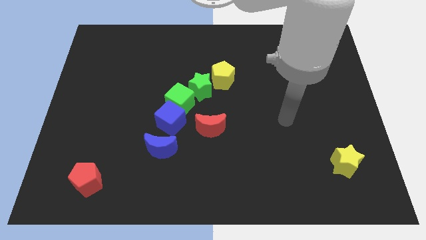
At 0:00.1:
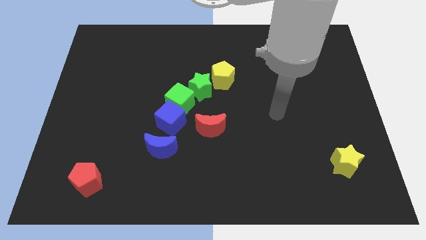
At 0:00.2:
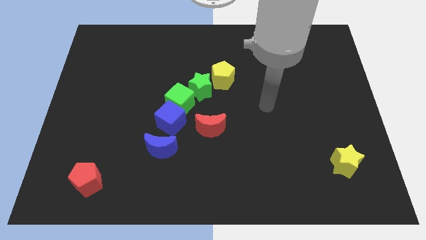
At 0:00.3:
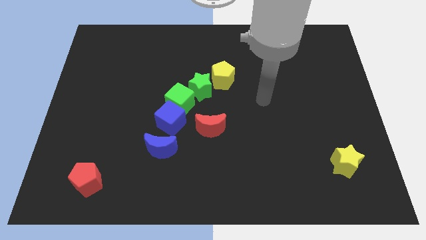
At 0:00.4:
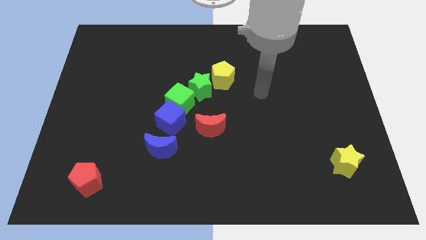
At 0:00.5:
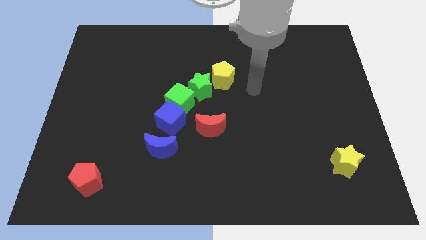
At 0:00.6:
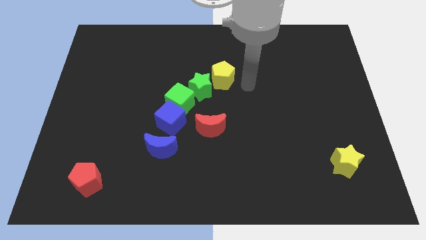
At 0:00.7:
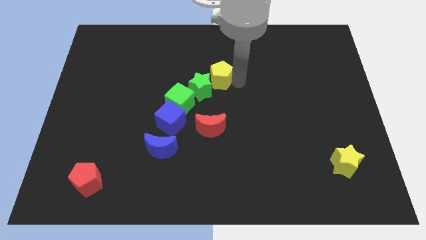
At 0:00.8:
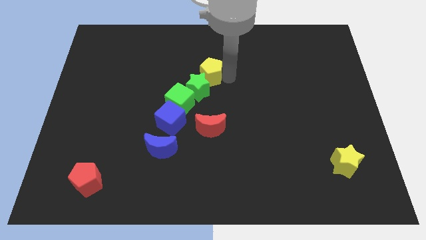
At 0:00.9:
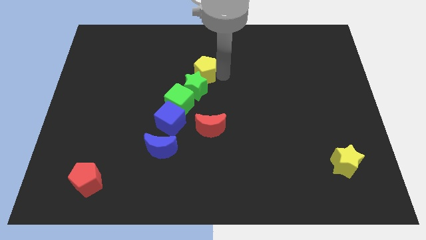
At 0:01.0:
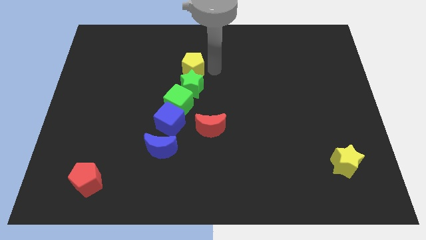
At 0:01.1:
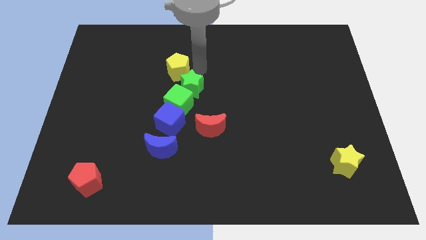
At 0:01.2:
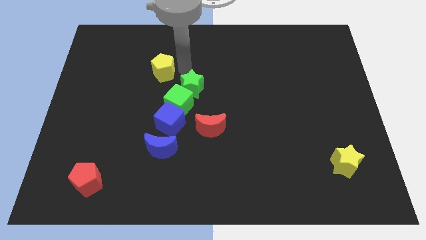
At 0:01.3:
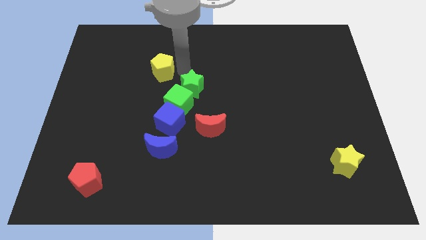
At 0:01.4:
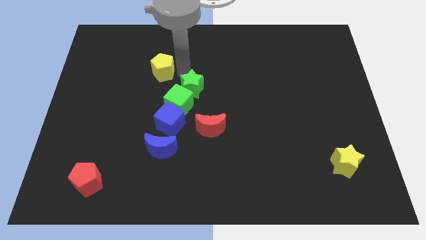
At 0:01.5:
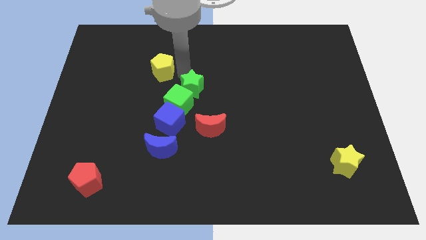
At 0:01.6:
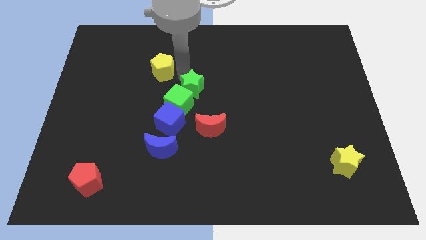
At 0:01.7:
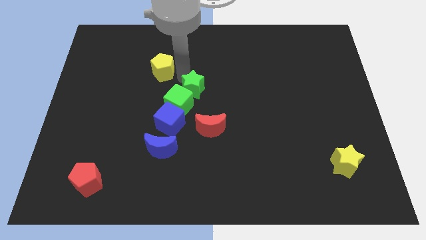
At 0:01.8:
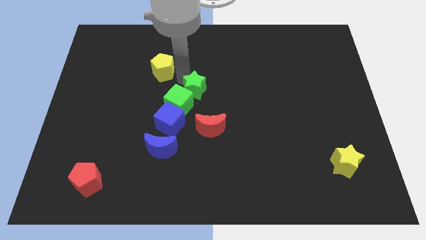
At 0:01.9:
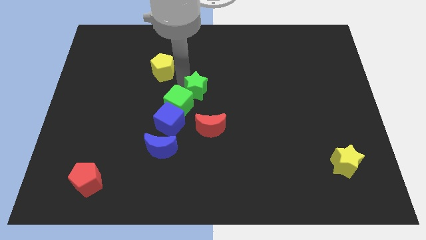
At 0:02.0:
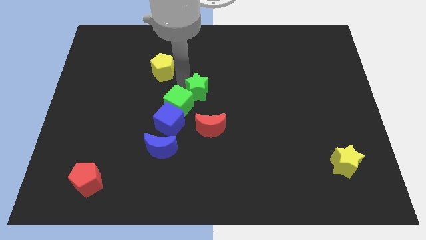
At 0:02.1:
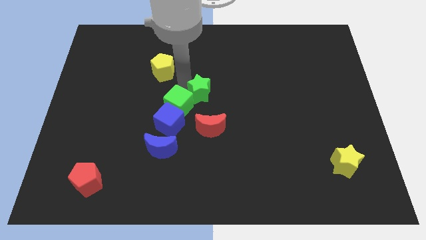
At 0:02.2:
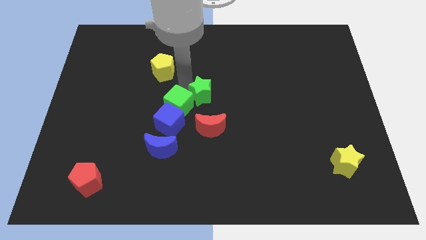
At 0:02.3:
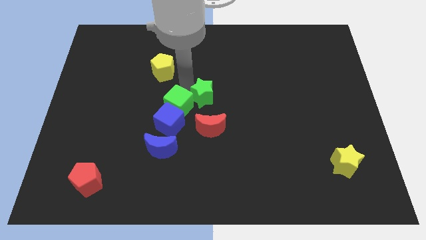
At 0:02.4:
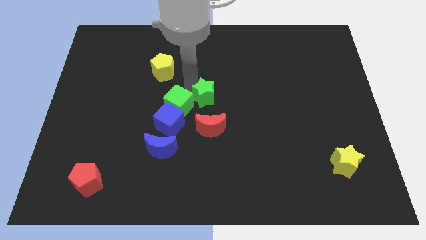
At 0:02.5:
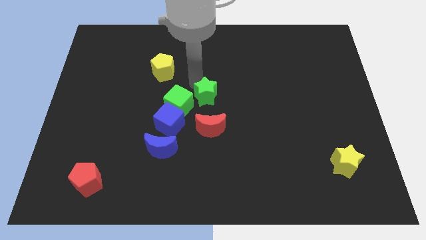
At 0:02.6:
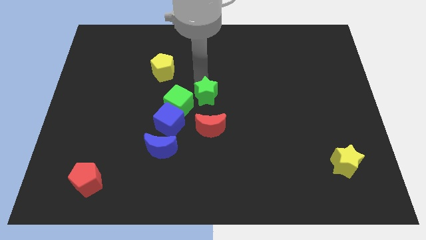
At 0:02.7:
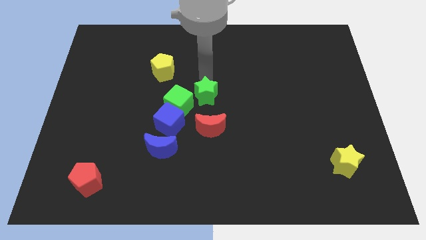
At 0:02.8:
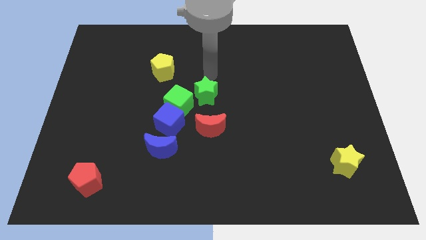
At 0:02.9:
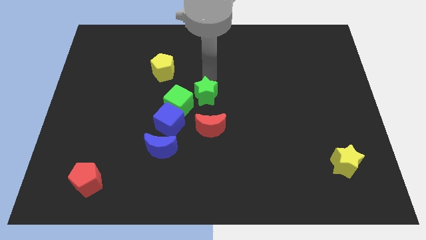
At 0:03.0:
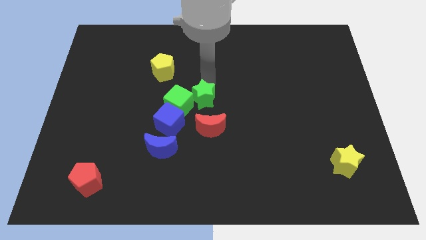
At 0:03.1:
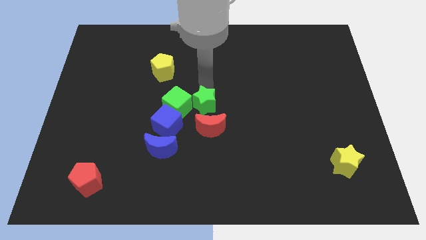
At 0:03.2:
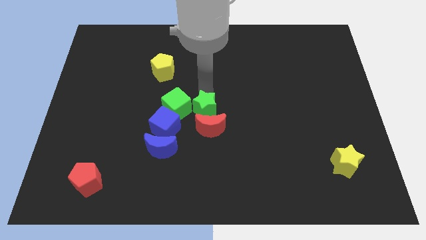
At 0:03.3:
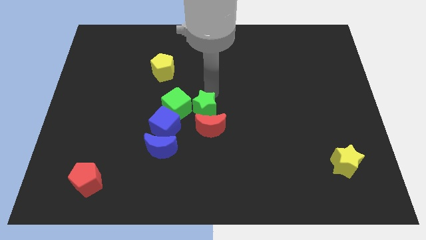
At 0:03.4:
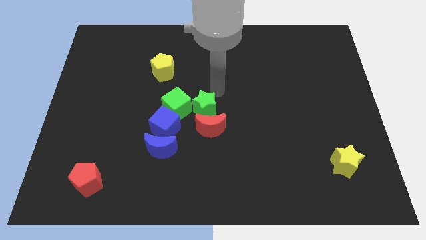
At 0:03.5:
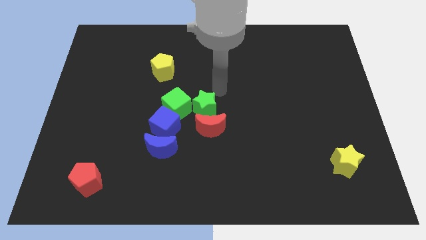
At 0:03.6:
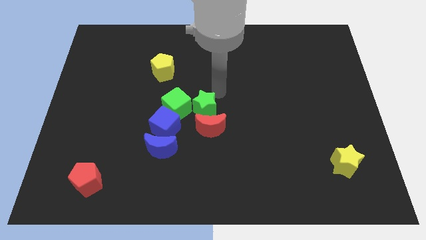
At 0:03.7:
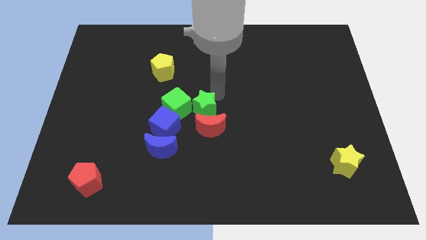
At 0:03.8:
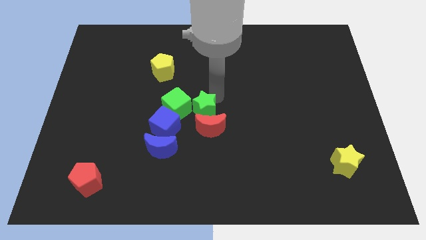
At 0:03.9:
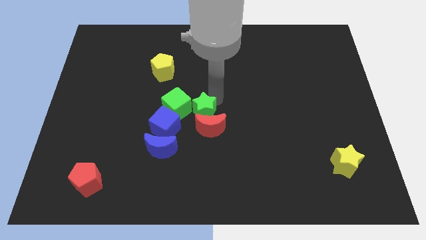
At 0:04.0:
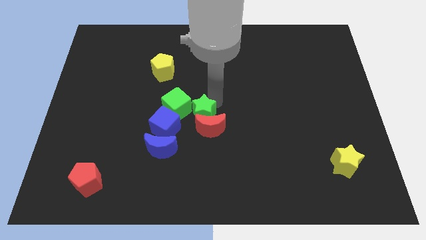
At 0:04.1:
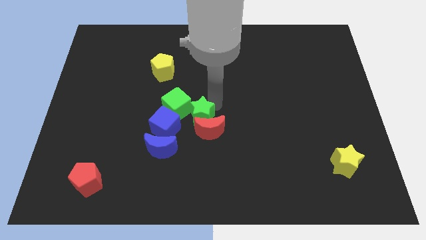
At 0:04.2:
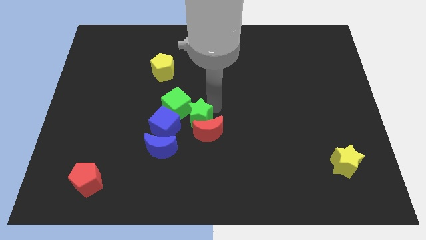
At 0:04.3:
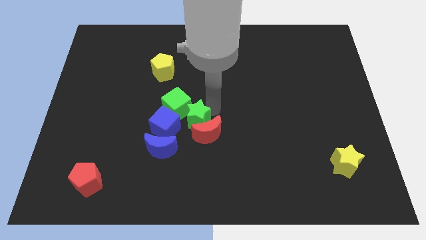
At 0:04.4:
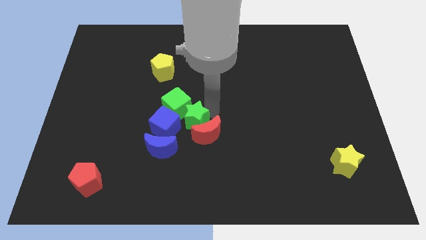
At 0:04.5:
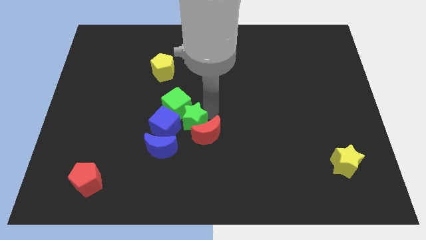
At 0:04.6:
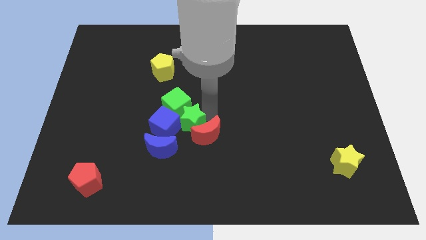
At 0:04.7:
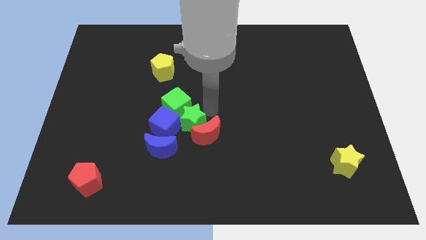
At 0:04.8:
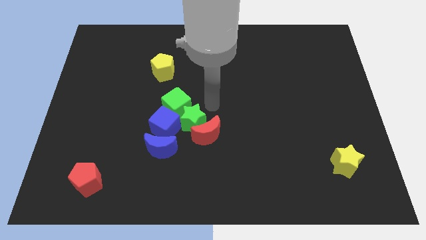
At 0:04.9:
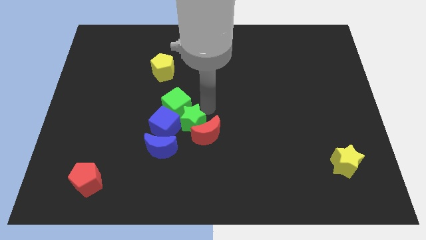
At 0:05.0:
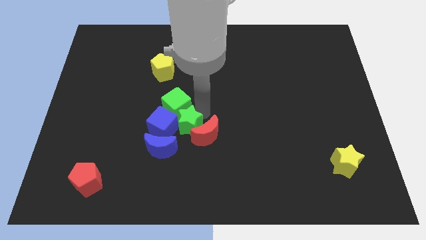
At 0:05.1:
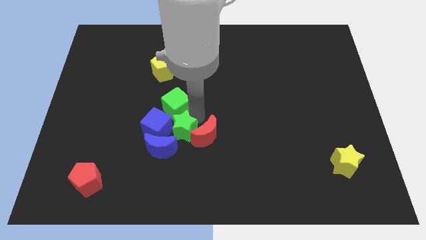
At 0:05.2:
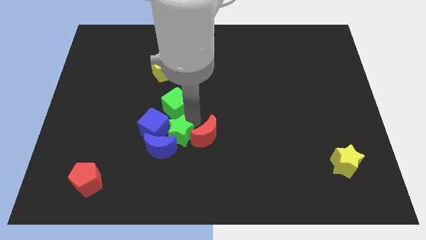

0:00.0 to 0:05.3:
slide the green star next to the blue moon

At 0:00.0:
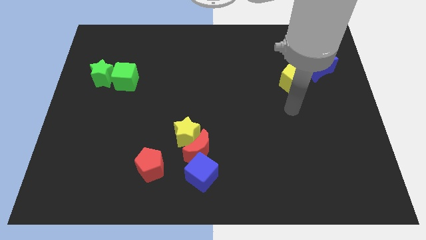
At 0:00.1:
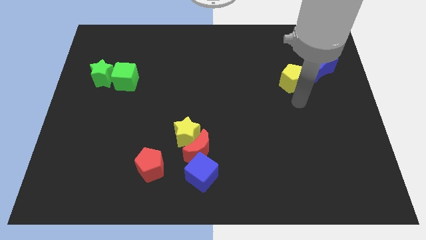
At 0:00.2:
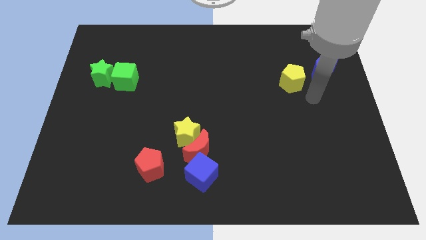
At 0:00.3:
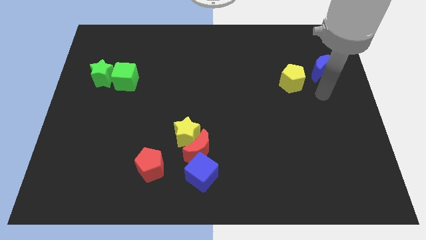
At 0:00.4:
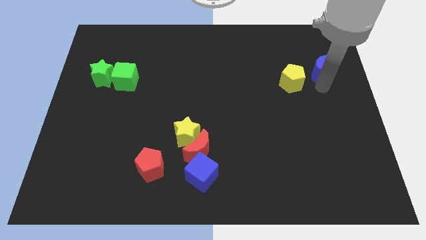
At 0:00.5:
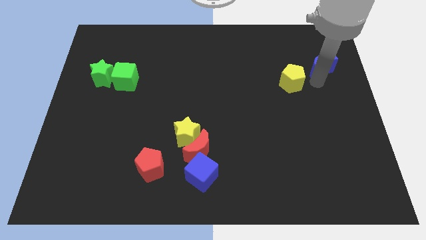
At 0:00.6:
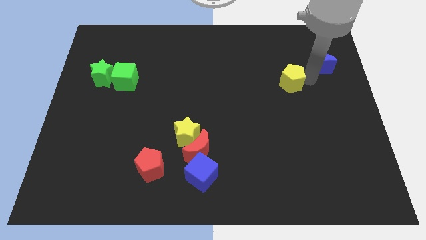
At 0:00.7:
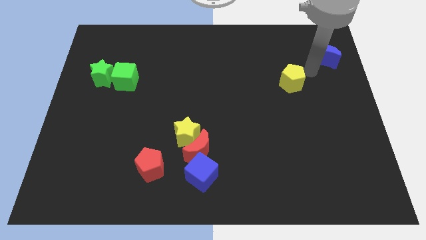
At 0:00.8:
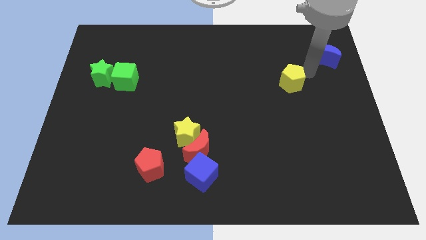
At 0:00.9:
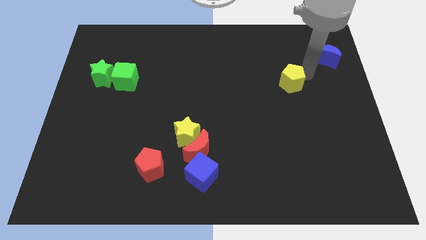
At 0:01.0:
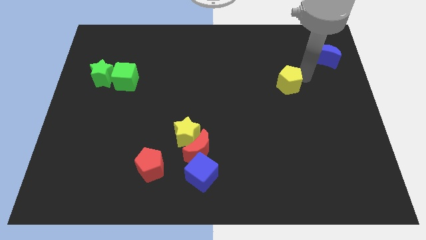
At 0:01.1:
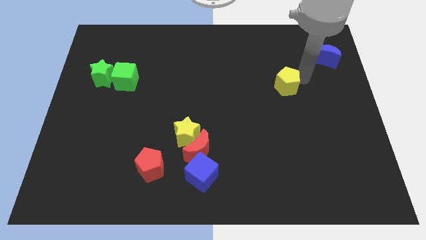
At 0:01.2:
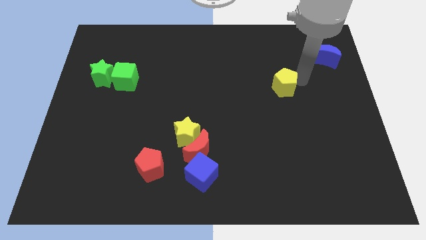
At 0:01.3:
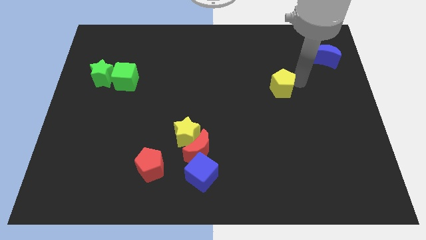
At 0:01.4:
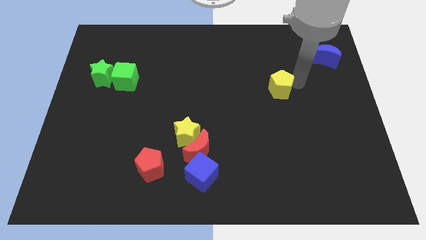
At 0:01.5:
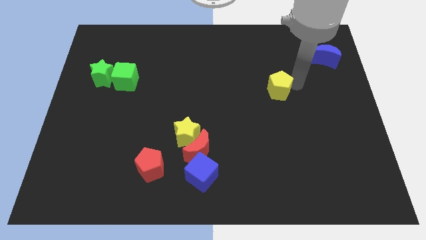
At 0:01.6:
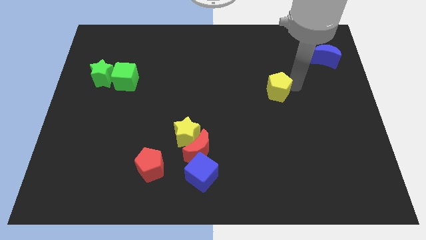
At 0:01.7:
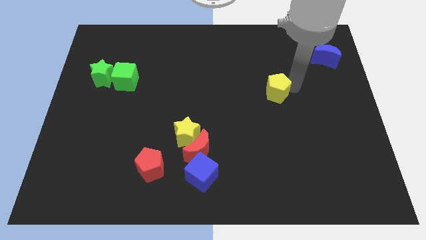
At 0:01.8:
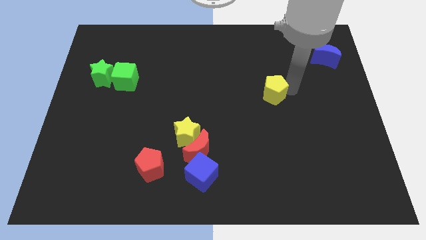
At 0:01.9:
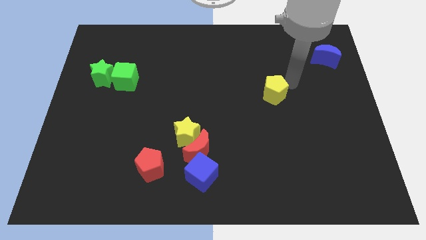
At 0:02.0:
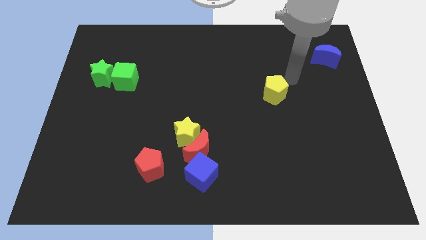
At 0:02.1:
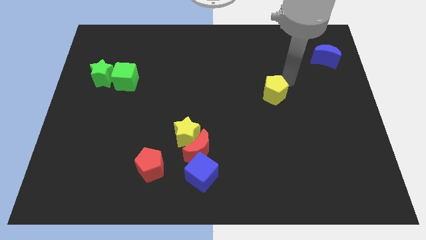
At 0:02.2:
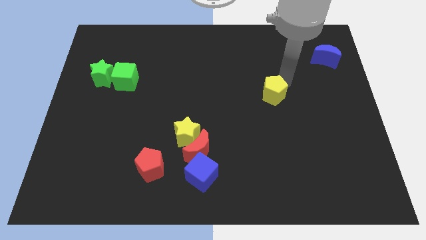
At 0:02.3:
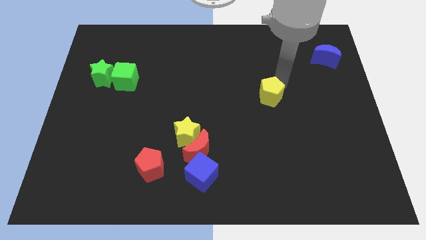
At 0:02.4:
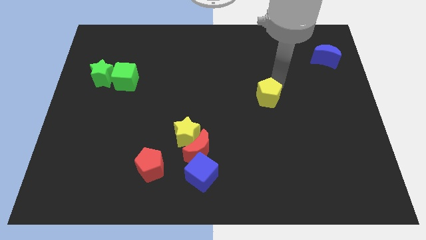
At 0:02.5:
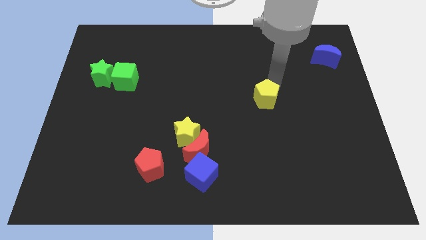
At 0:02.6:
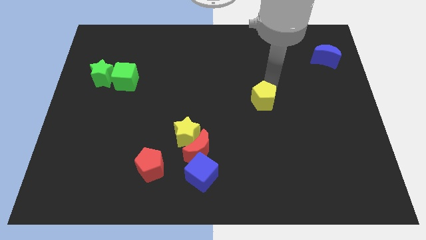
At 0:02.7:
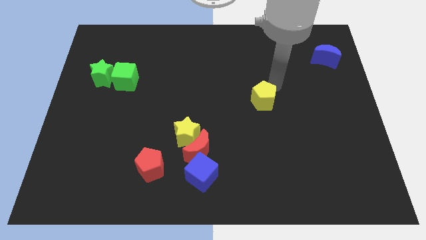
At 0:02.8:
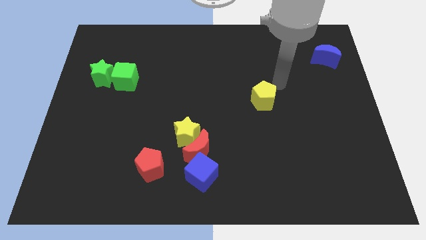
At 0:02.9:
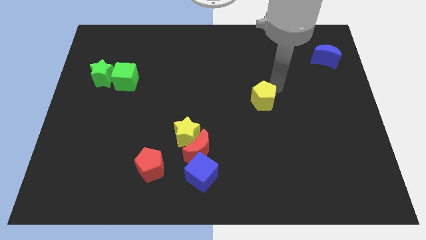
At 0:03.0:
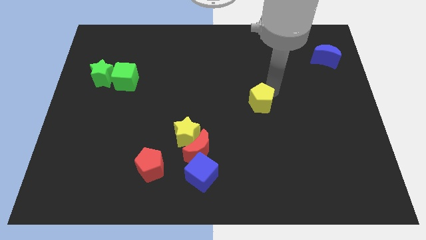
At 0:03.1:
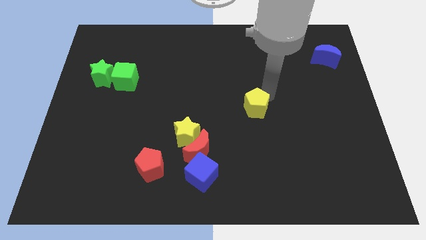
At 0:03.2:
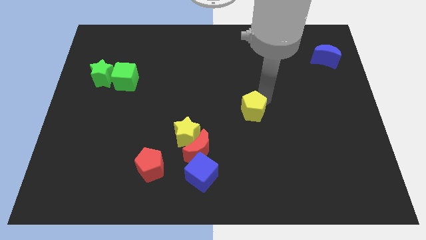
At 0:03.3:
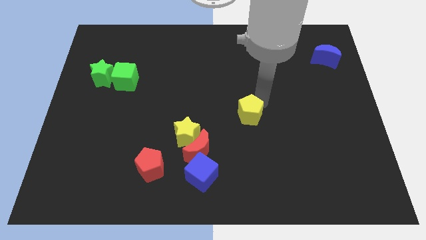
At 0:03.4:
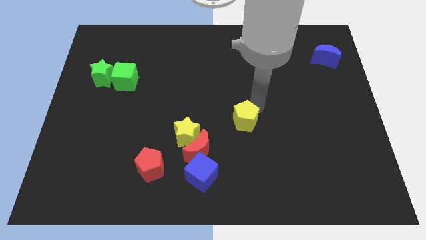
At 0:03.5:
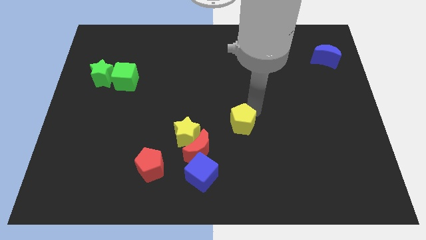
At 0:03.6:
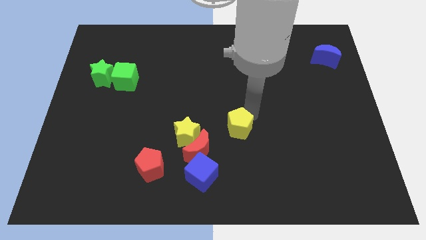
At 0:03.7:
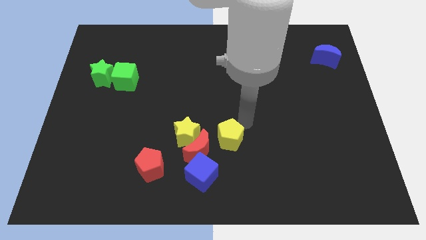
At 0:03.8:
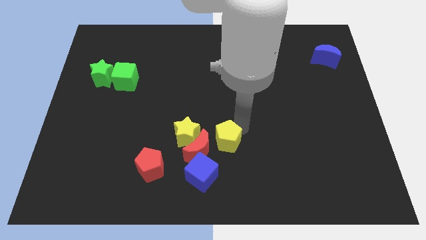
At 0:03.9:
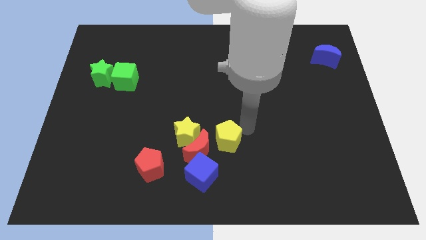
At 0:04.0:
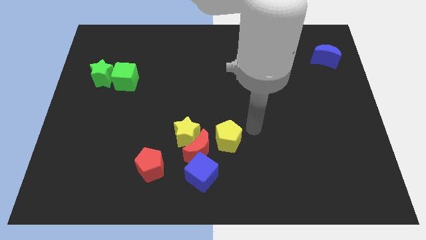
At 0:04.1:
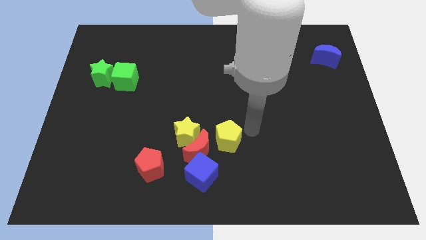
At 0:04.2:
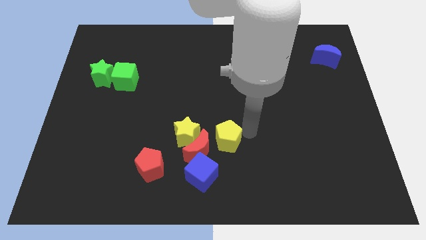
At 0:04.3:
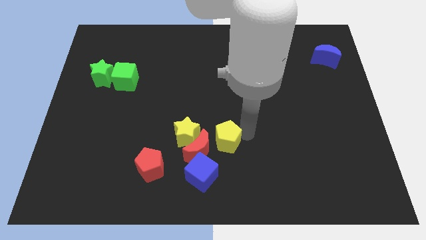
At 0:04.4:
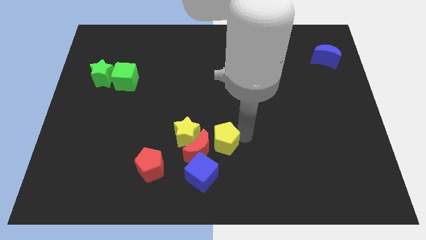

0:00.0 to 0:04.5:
put the yellow pentagon next to the red moon
